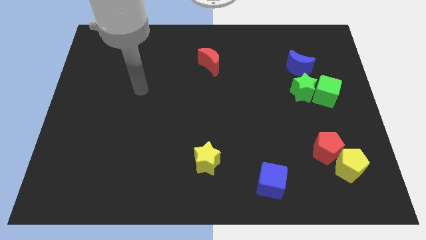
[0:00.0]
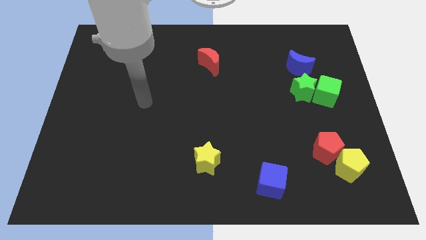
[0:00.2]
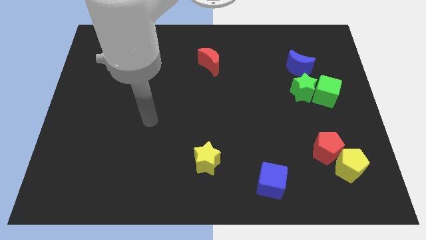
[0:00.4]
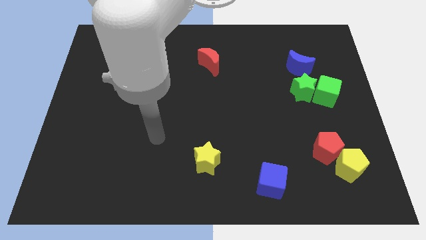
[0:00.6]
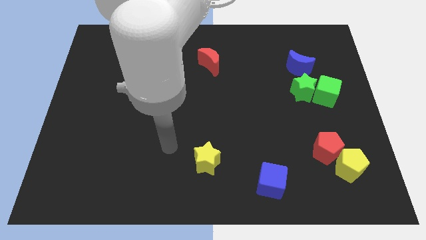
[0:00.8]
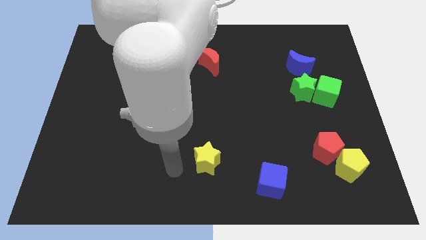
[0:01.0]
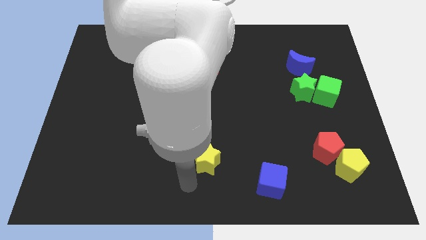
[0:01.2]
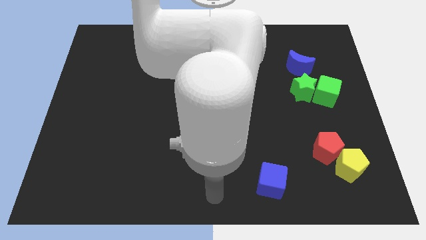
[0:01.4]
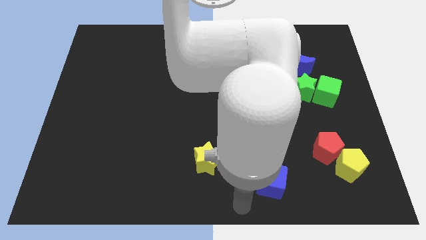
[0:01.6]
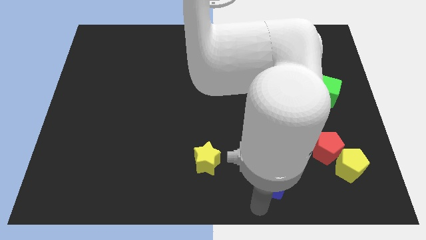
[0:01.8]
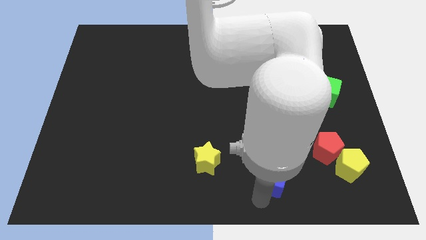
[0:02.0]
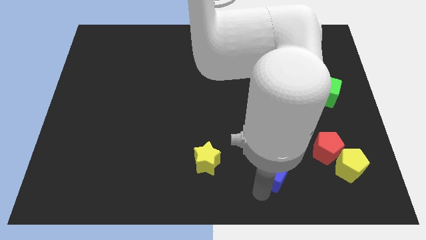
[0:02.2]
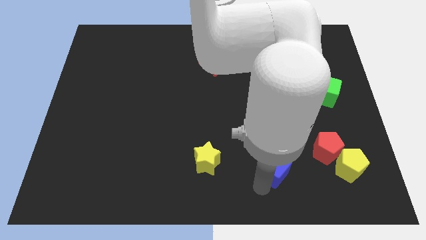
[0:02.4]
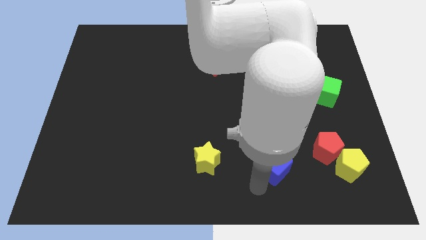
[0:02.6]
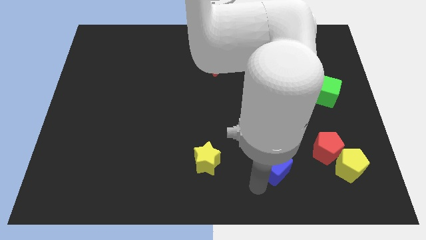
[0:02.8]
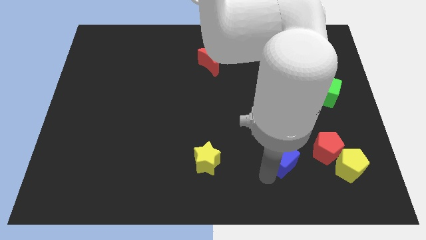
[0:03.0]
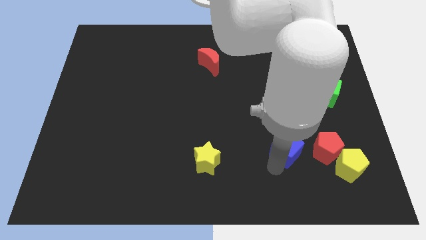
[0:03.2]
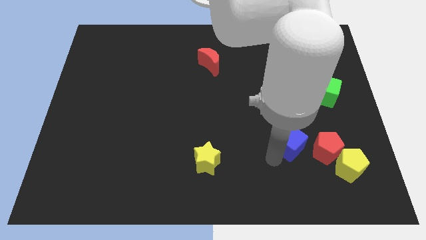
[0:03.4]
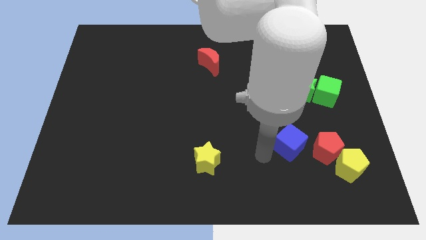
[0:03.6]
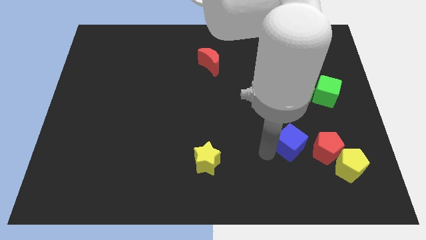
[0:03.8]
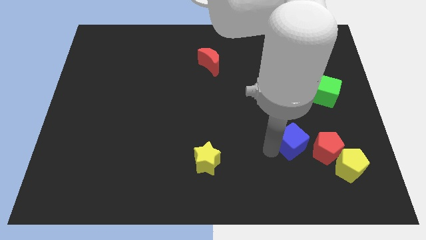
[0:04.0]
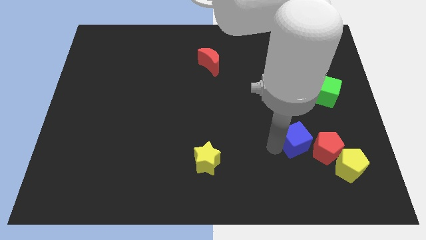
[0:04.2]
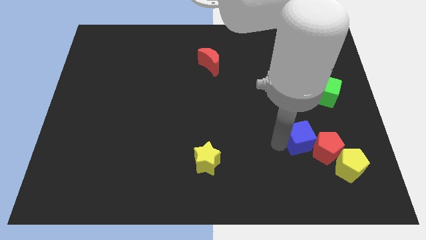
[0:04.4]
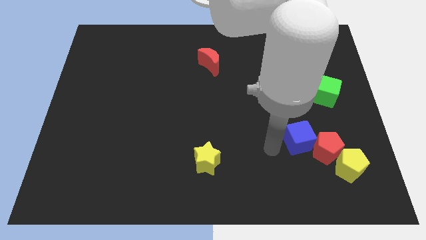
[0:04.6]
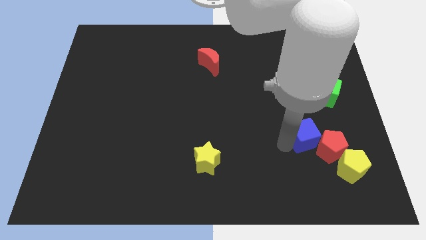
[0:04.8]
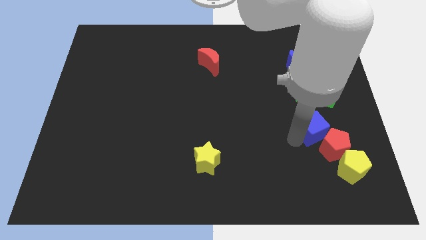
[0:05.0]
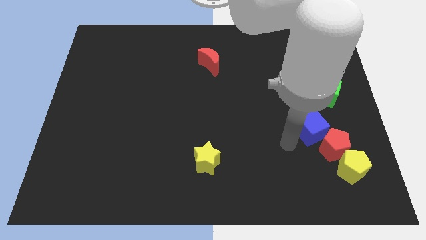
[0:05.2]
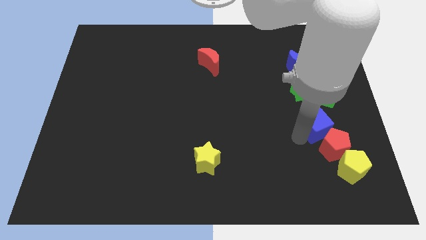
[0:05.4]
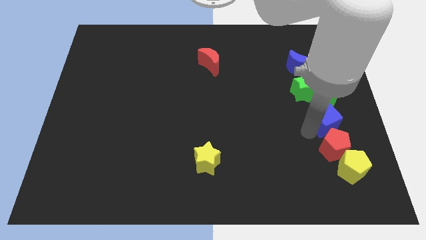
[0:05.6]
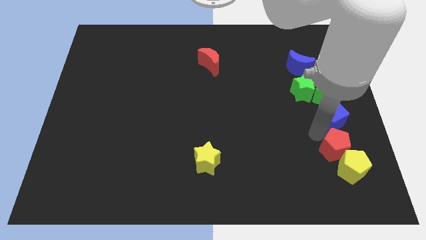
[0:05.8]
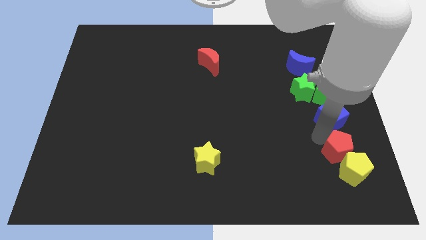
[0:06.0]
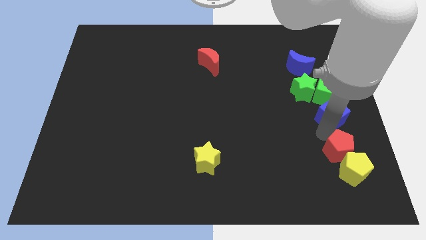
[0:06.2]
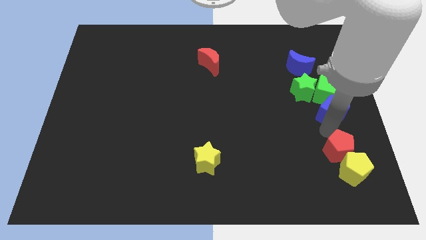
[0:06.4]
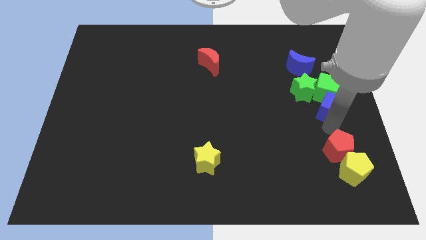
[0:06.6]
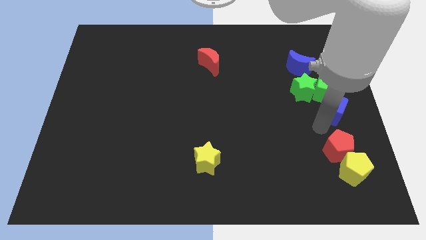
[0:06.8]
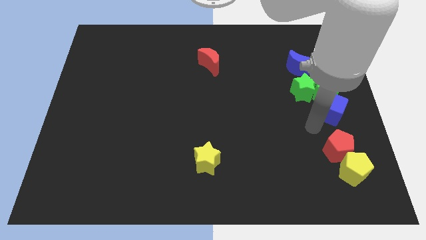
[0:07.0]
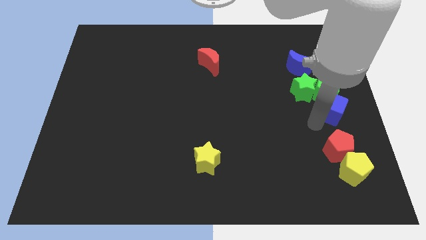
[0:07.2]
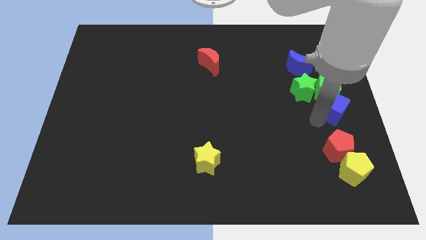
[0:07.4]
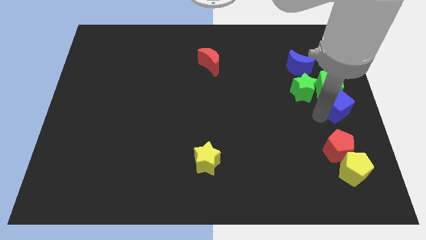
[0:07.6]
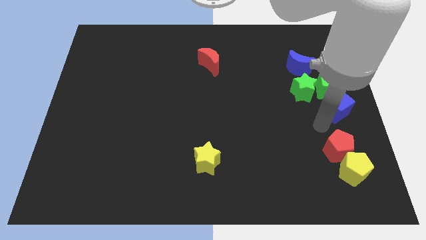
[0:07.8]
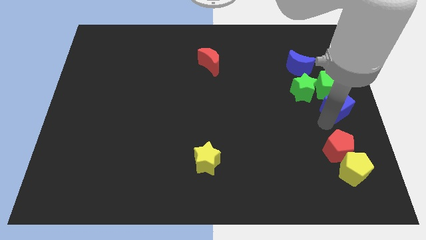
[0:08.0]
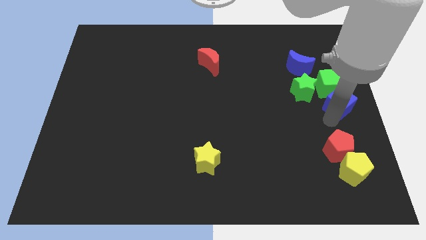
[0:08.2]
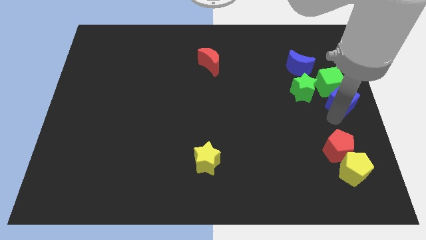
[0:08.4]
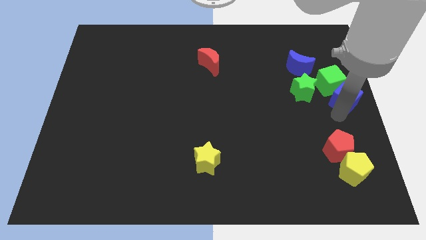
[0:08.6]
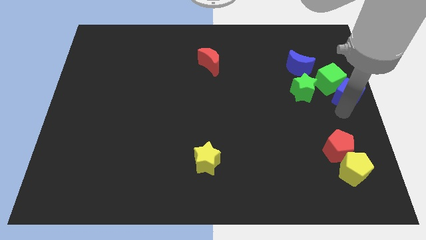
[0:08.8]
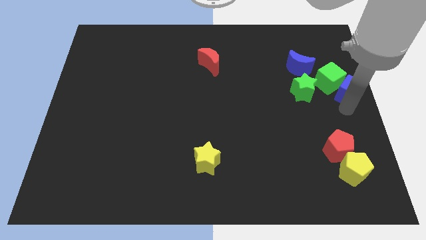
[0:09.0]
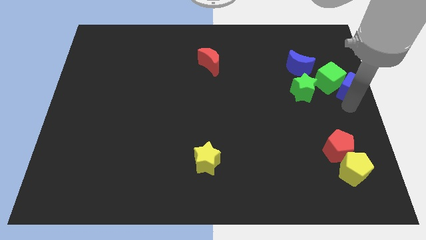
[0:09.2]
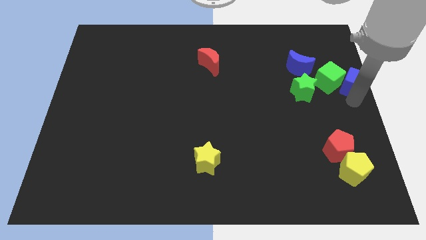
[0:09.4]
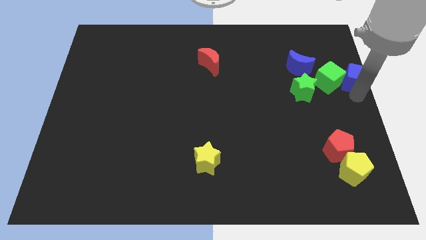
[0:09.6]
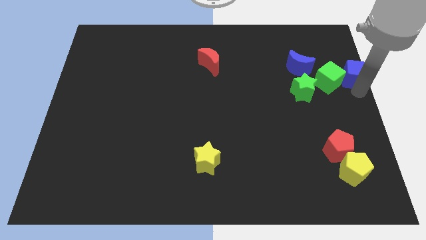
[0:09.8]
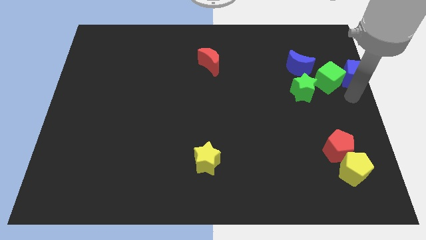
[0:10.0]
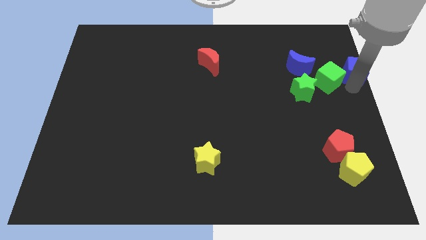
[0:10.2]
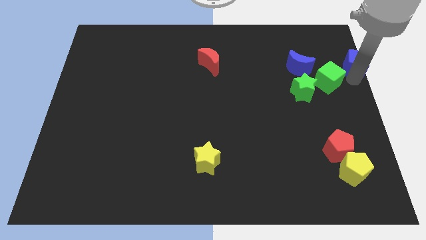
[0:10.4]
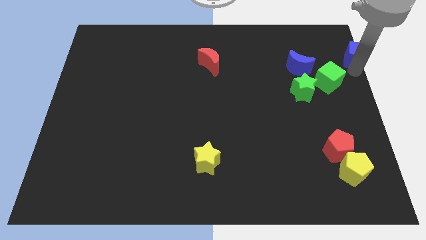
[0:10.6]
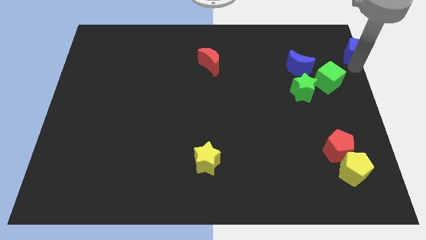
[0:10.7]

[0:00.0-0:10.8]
move the blue cube to the top right corner
